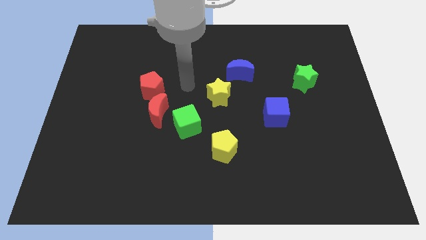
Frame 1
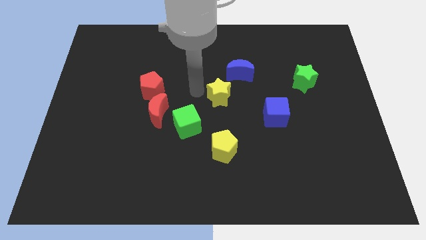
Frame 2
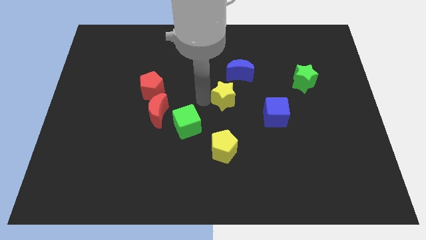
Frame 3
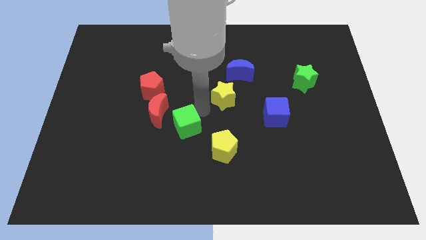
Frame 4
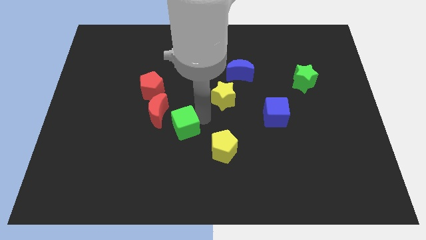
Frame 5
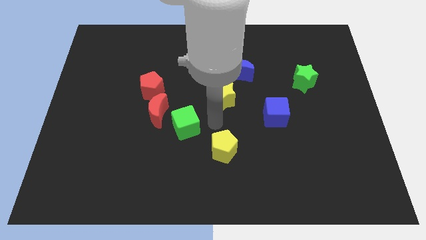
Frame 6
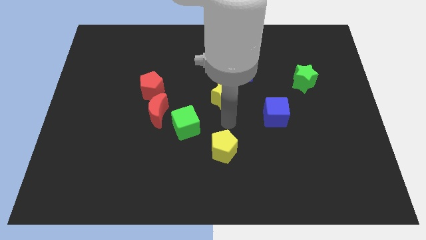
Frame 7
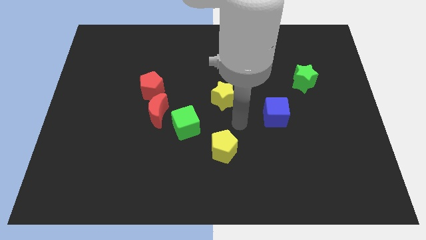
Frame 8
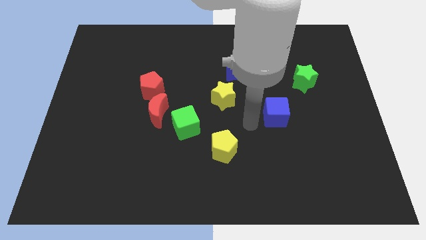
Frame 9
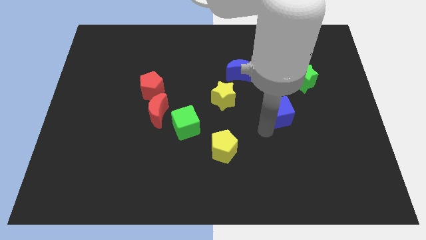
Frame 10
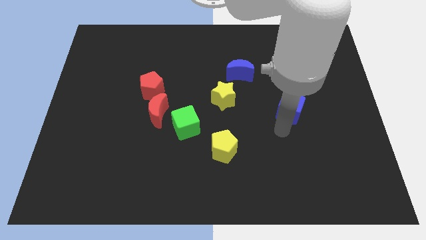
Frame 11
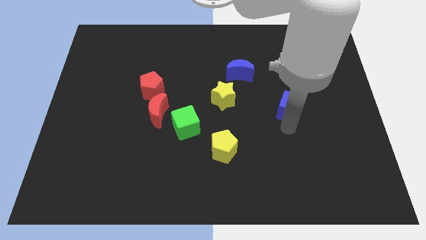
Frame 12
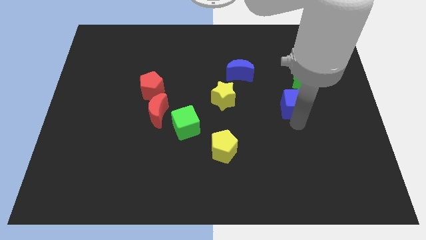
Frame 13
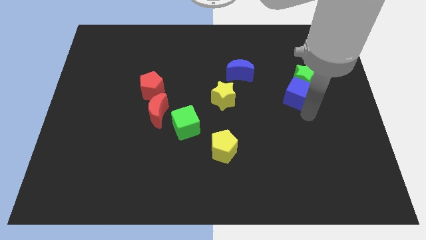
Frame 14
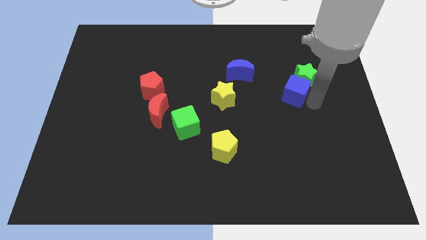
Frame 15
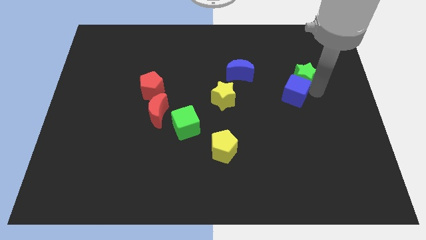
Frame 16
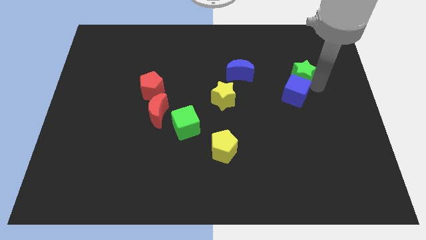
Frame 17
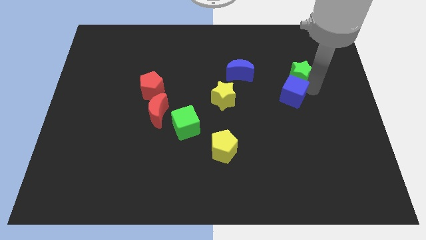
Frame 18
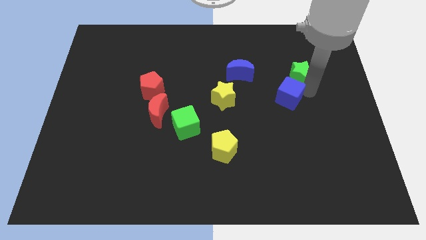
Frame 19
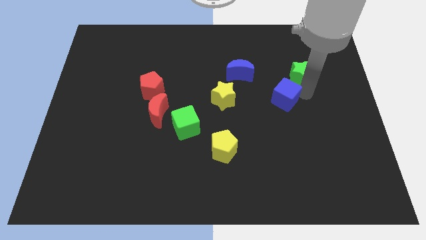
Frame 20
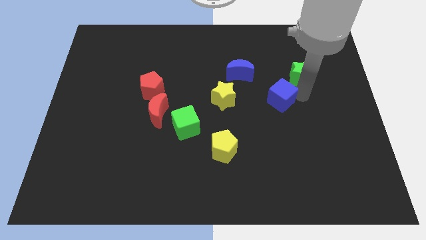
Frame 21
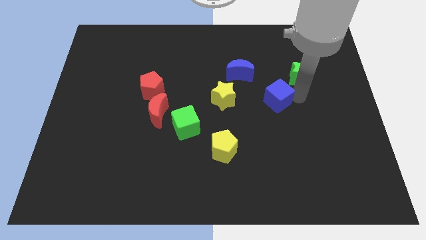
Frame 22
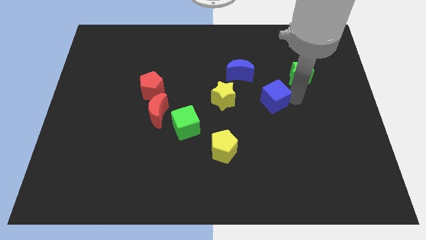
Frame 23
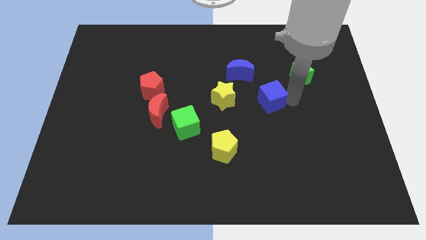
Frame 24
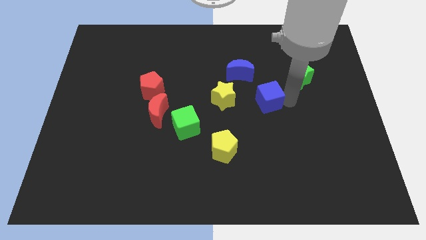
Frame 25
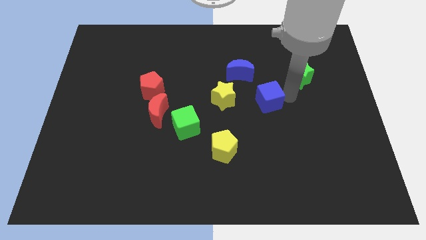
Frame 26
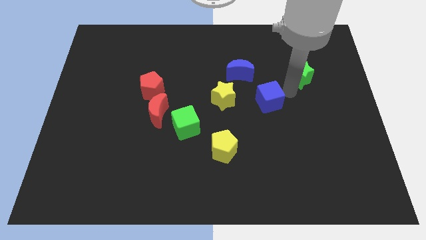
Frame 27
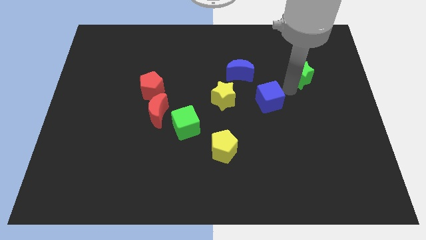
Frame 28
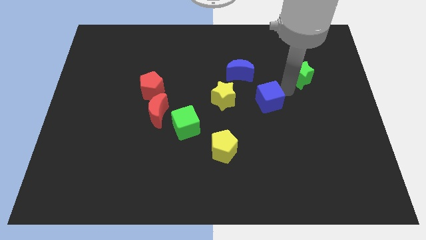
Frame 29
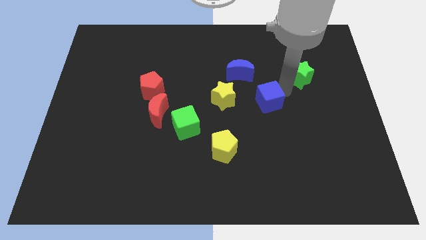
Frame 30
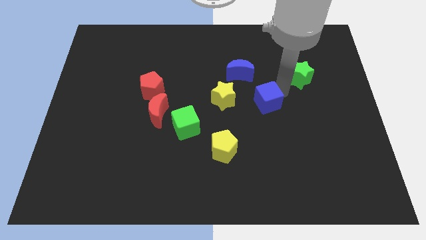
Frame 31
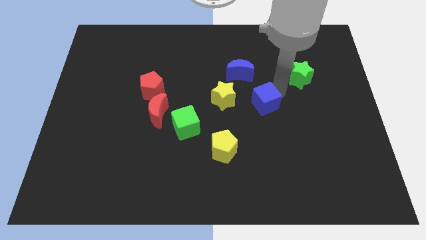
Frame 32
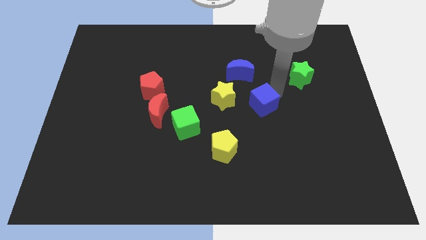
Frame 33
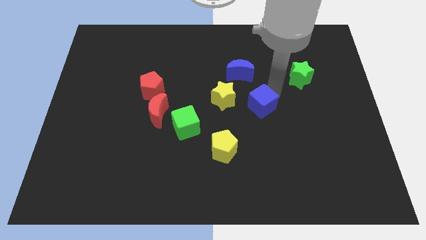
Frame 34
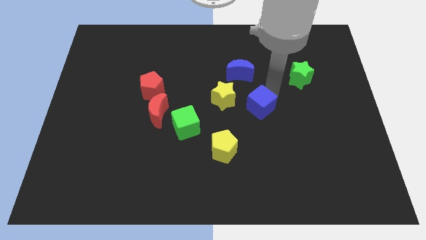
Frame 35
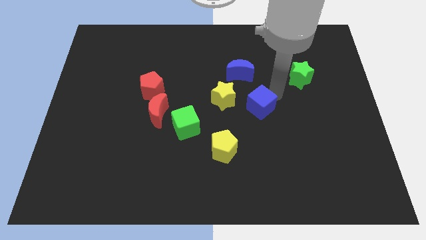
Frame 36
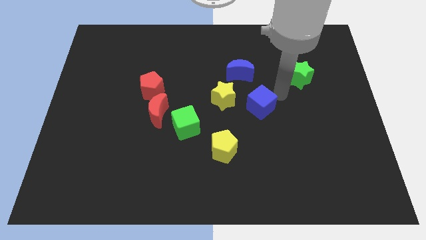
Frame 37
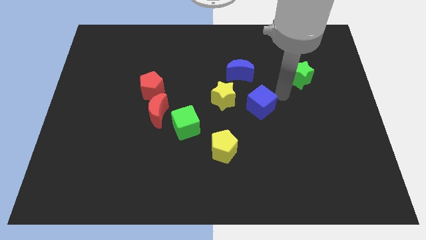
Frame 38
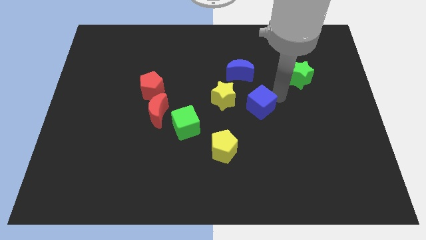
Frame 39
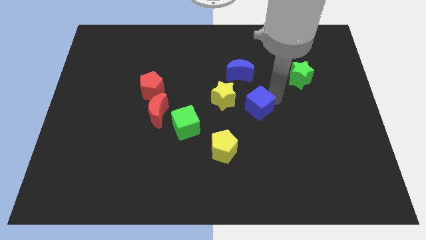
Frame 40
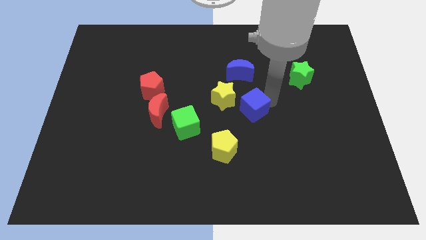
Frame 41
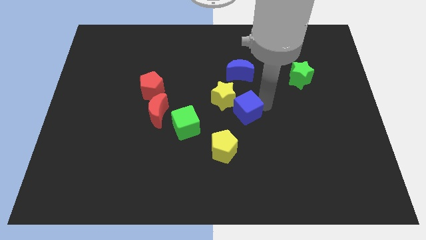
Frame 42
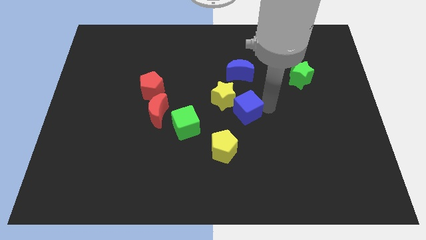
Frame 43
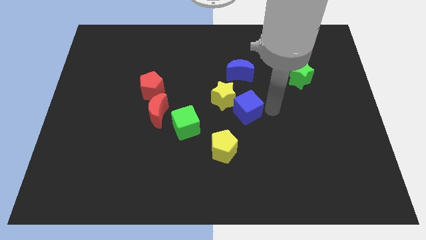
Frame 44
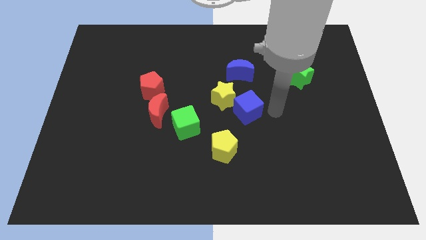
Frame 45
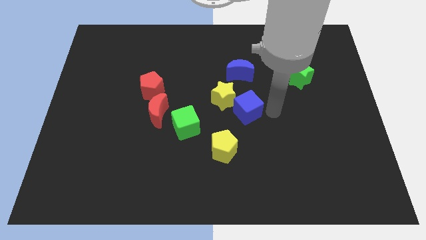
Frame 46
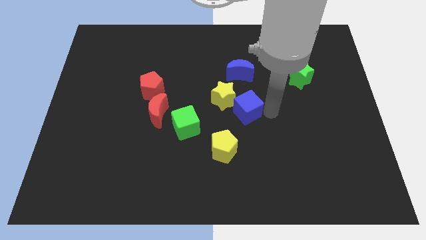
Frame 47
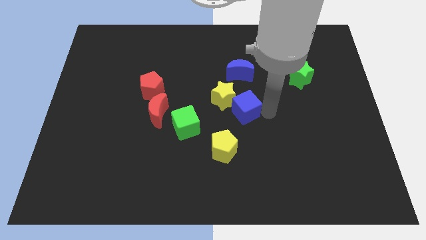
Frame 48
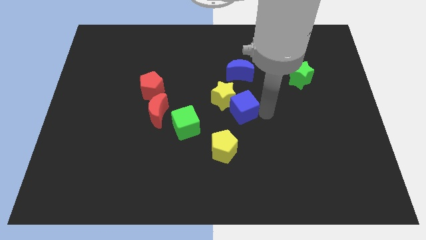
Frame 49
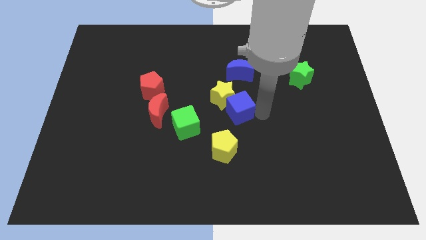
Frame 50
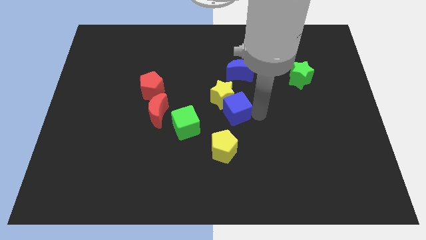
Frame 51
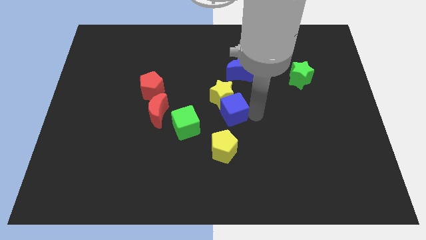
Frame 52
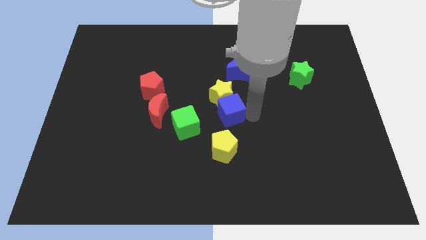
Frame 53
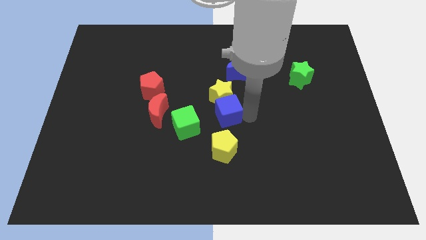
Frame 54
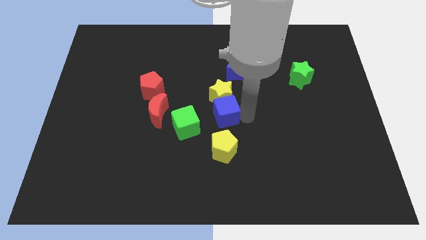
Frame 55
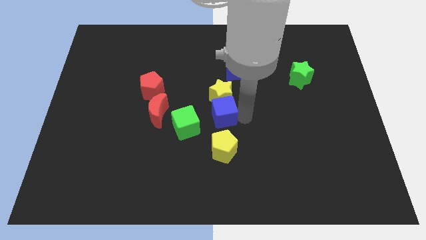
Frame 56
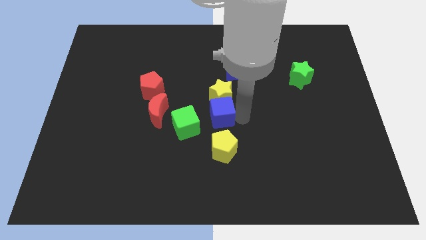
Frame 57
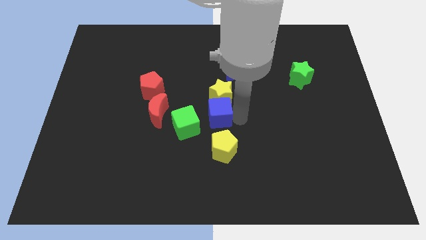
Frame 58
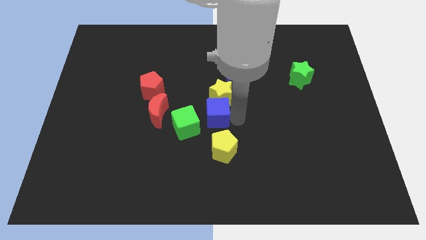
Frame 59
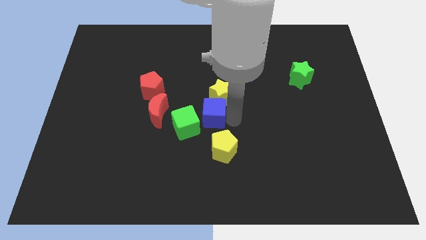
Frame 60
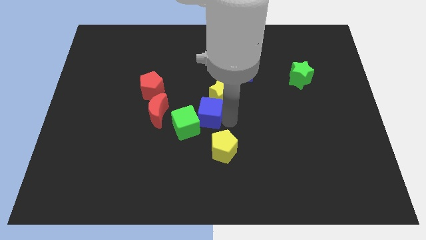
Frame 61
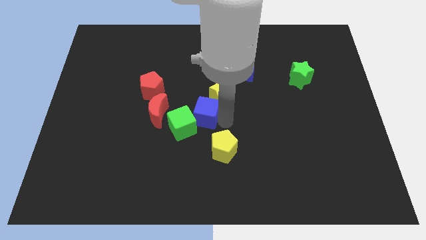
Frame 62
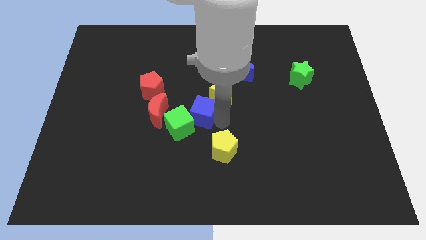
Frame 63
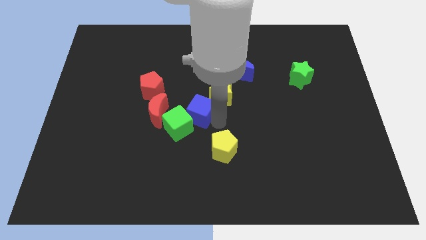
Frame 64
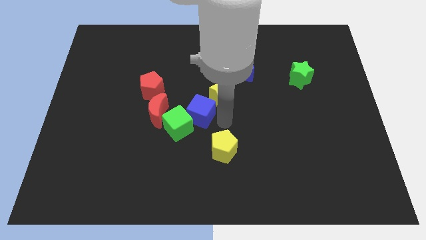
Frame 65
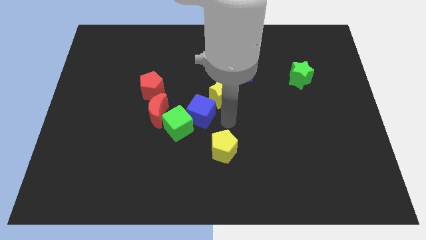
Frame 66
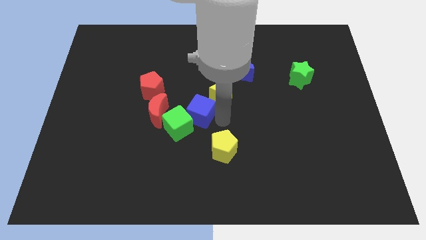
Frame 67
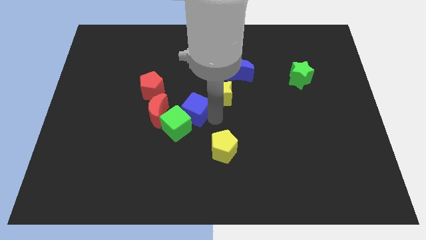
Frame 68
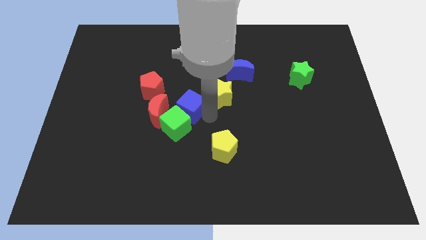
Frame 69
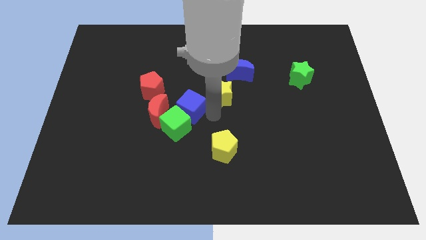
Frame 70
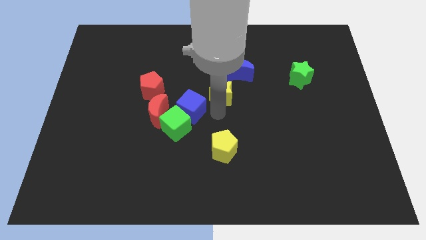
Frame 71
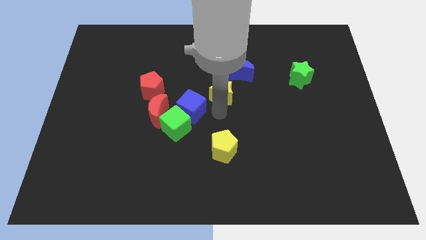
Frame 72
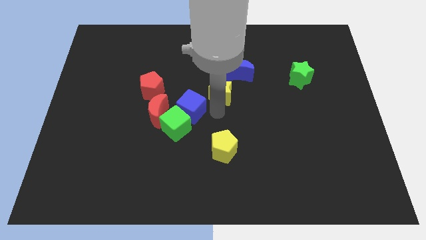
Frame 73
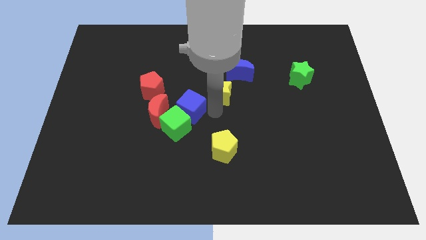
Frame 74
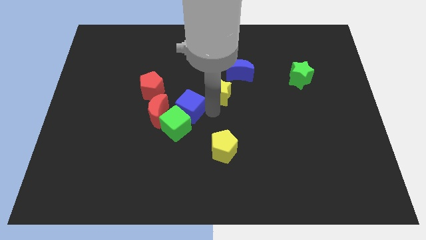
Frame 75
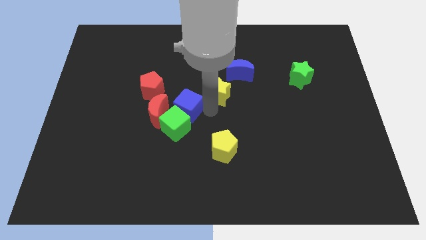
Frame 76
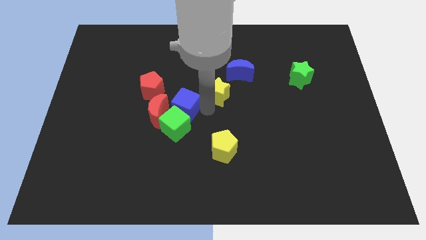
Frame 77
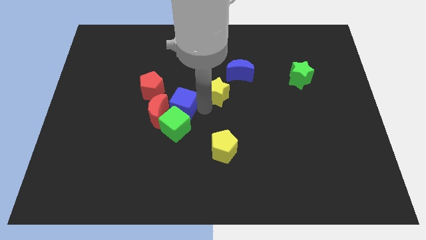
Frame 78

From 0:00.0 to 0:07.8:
put the blue cube next to the red moon

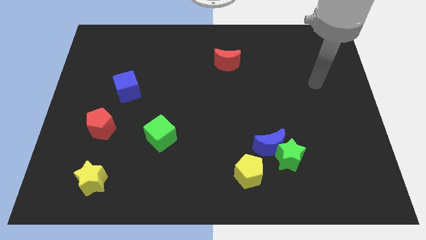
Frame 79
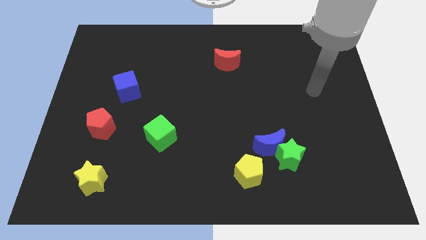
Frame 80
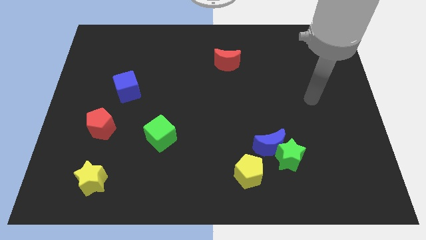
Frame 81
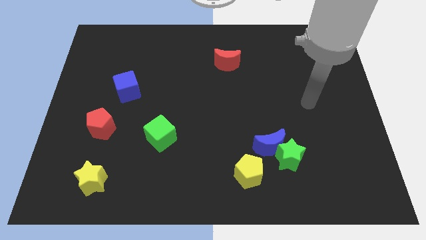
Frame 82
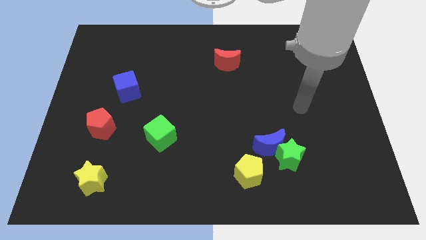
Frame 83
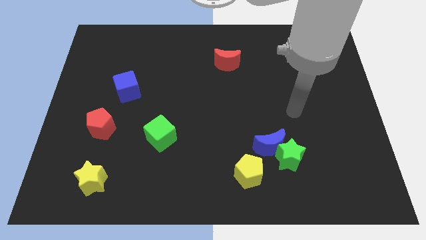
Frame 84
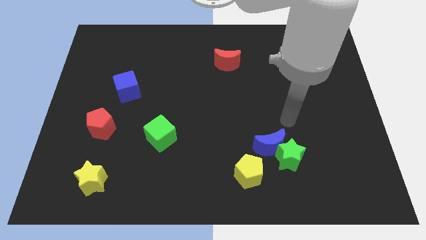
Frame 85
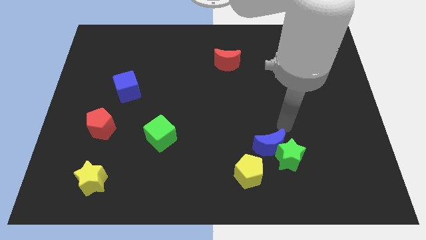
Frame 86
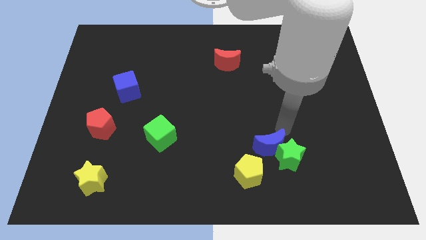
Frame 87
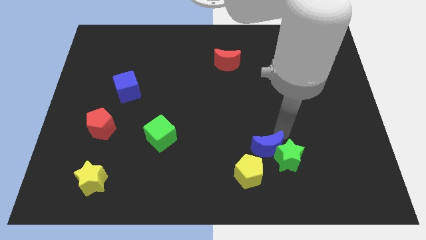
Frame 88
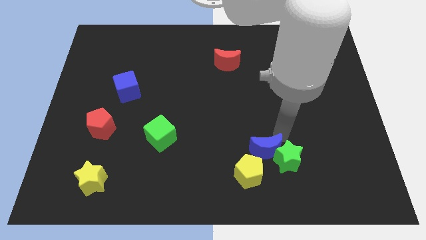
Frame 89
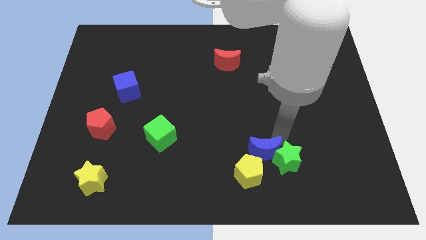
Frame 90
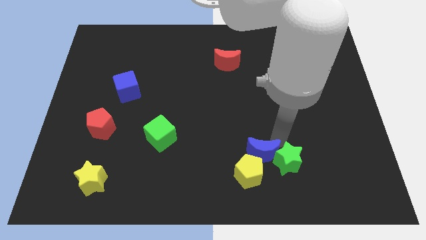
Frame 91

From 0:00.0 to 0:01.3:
move the blue moon towards the yellow pentagon
